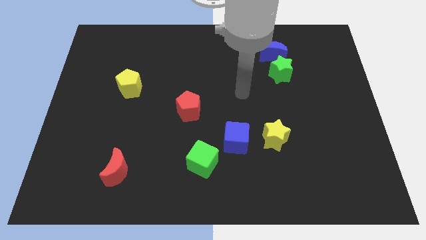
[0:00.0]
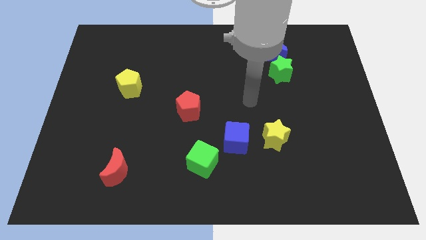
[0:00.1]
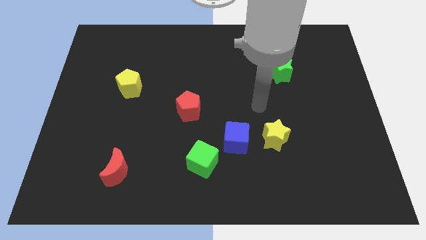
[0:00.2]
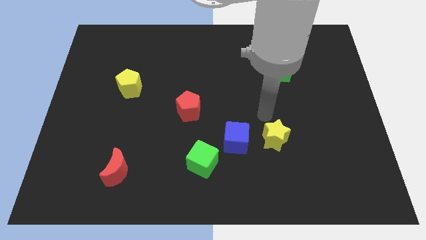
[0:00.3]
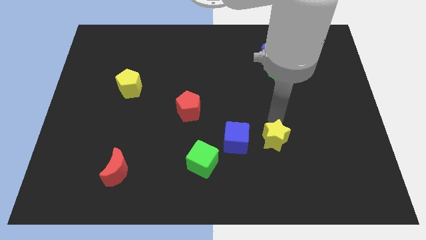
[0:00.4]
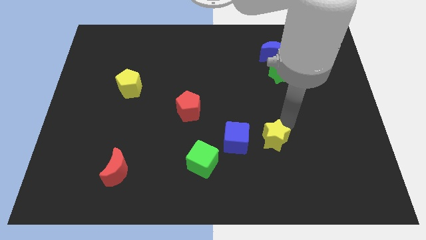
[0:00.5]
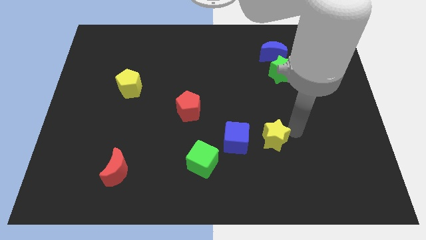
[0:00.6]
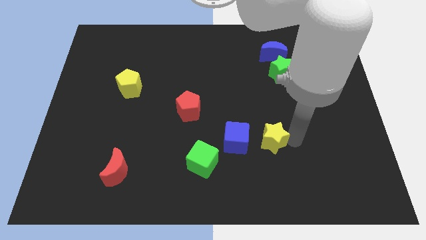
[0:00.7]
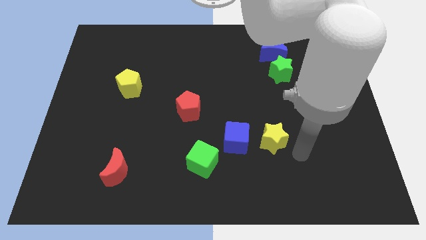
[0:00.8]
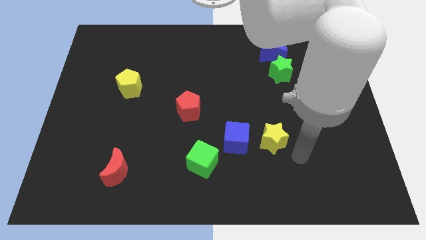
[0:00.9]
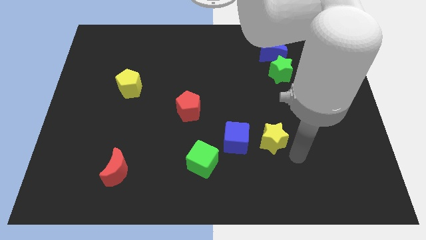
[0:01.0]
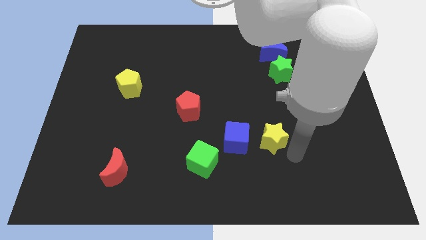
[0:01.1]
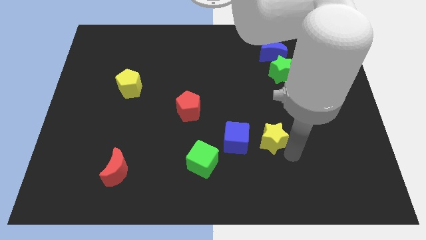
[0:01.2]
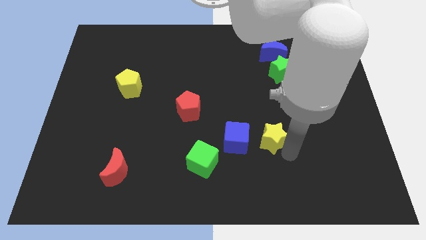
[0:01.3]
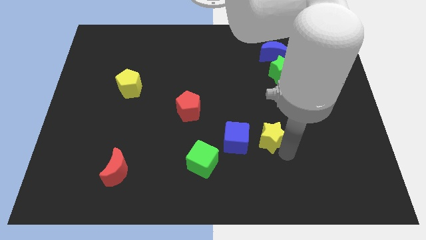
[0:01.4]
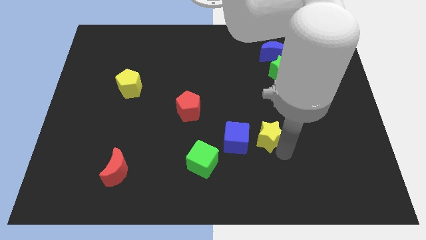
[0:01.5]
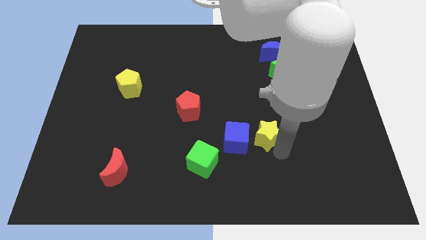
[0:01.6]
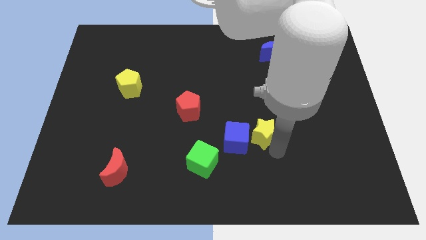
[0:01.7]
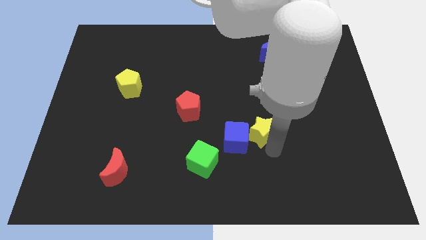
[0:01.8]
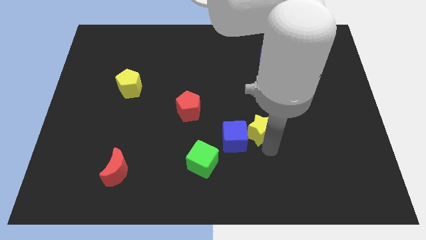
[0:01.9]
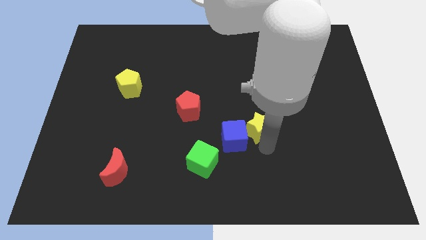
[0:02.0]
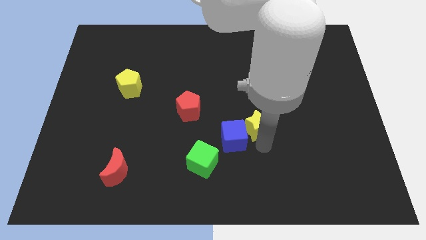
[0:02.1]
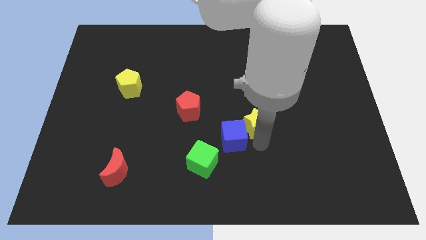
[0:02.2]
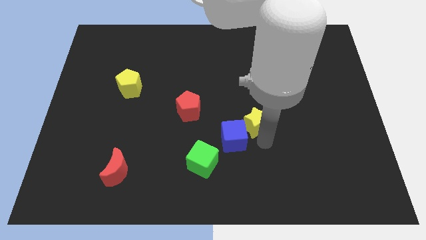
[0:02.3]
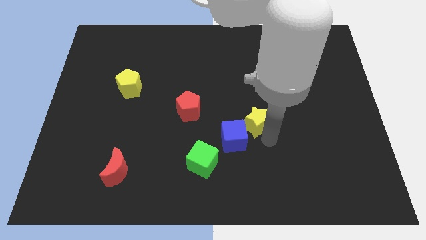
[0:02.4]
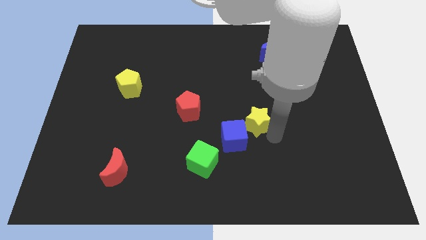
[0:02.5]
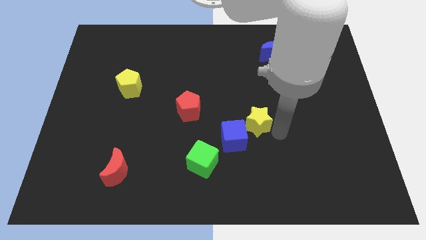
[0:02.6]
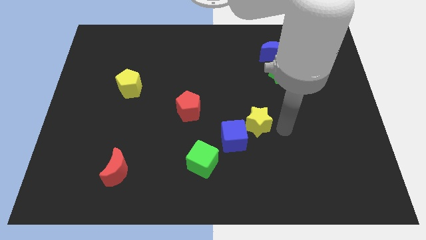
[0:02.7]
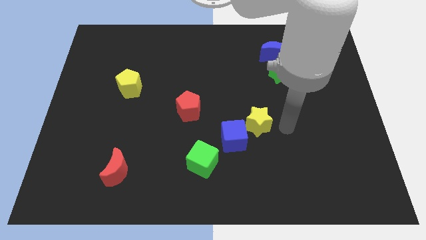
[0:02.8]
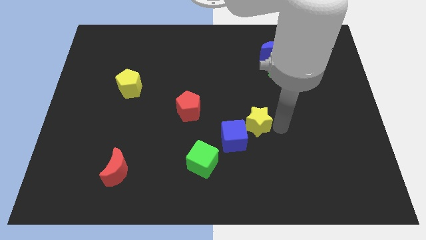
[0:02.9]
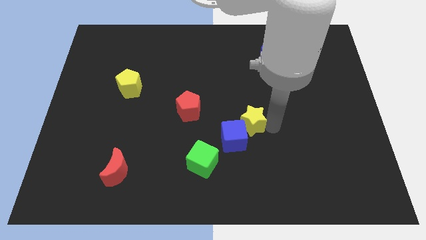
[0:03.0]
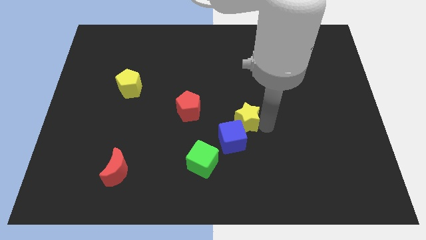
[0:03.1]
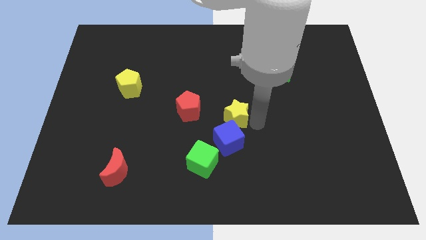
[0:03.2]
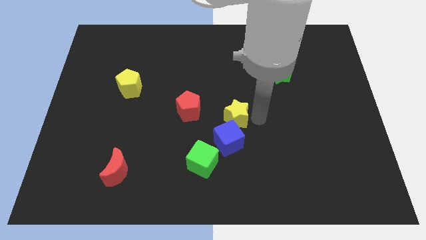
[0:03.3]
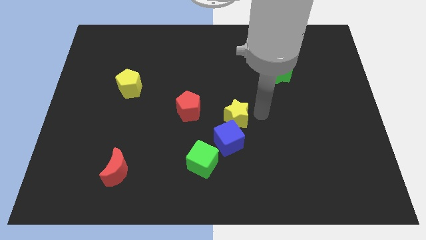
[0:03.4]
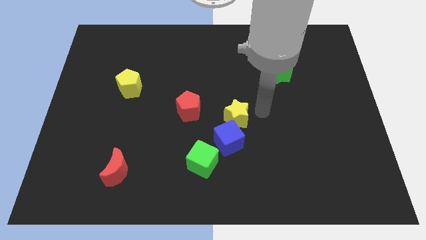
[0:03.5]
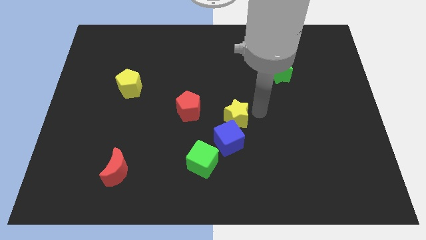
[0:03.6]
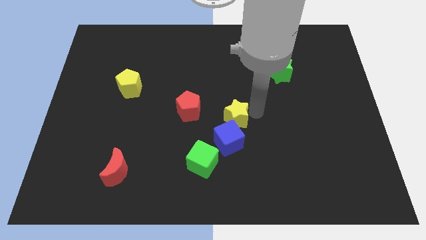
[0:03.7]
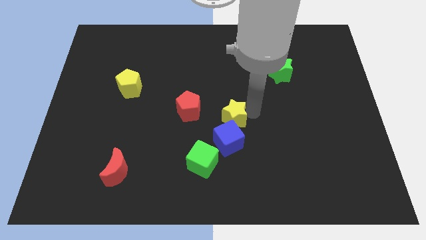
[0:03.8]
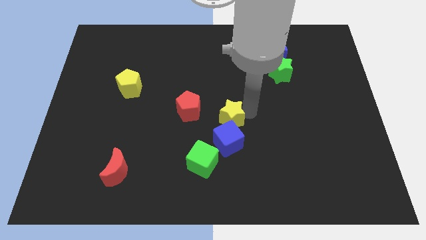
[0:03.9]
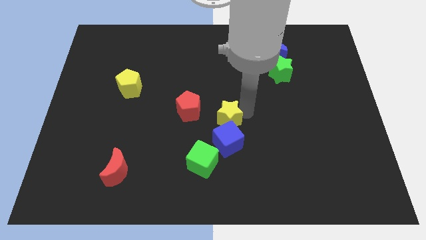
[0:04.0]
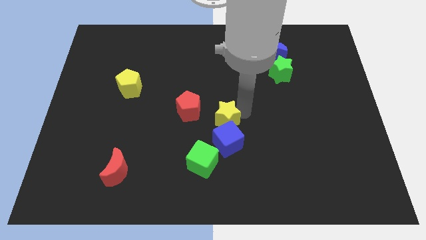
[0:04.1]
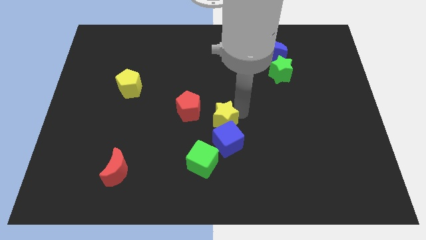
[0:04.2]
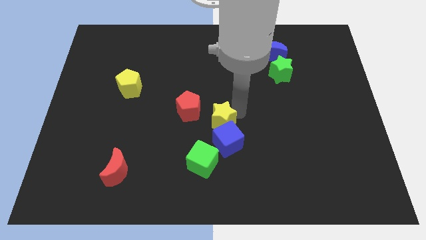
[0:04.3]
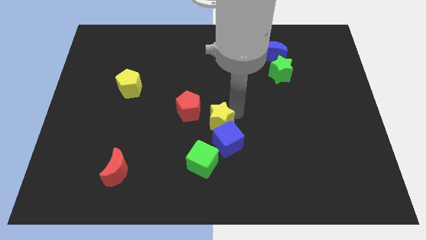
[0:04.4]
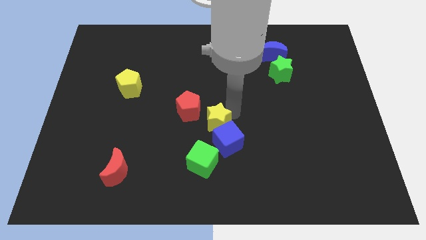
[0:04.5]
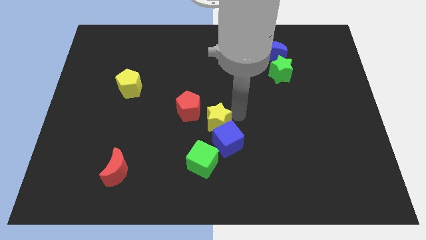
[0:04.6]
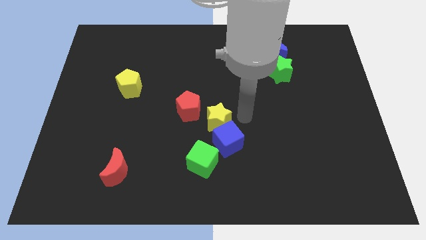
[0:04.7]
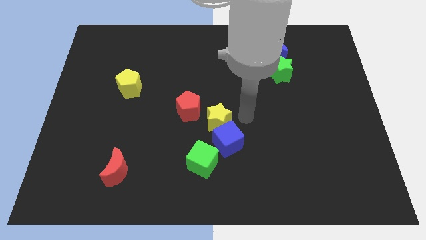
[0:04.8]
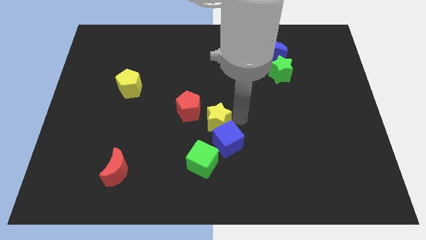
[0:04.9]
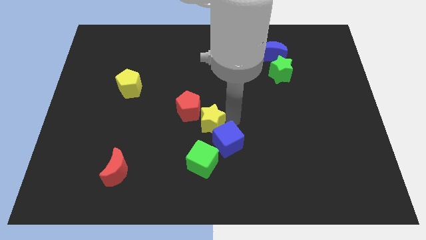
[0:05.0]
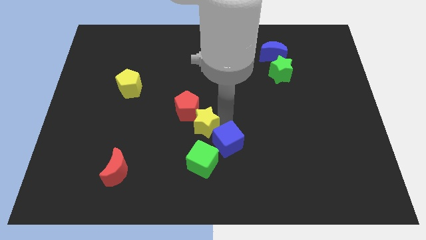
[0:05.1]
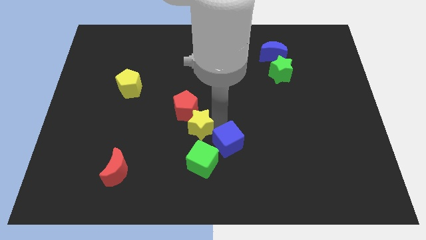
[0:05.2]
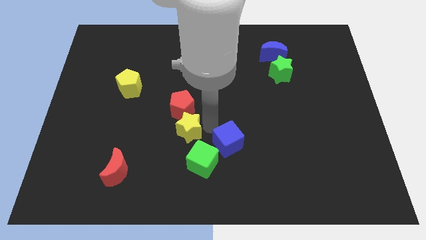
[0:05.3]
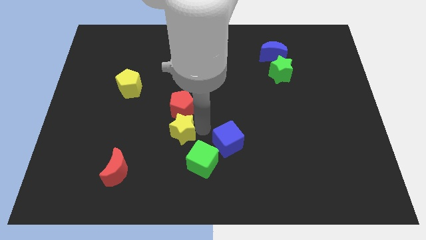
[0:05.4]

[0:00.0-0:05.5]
push the yellow star to the left

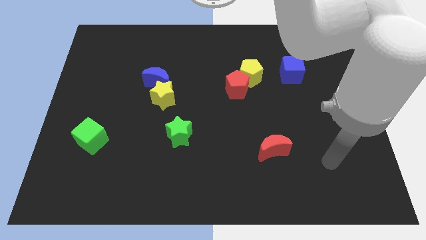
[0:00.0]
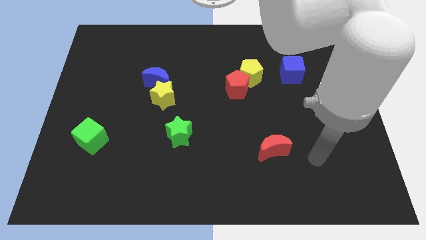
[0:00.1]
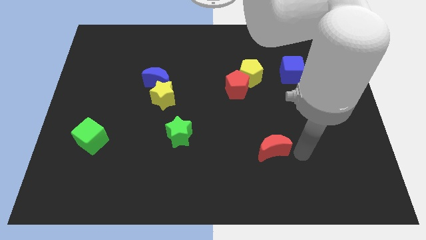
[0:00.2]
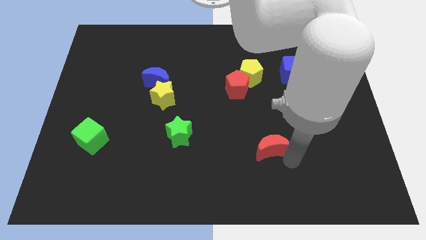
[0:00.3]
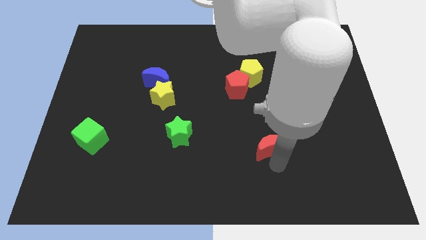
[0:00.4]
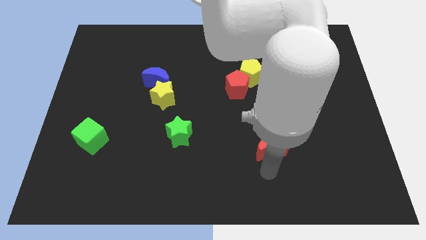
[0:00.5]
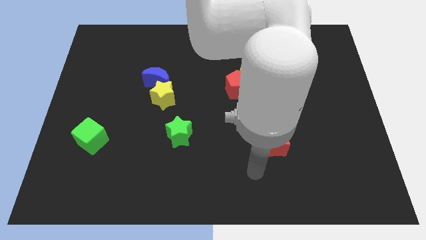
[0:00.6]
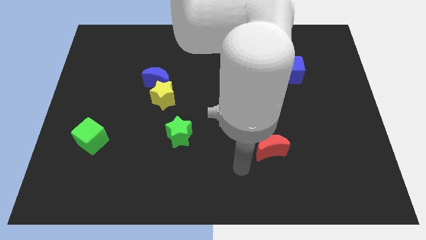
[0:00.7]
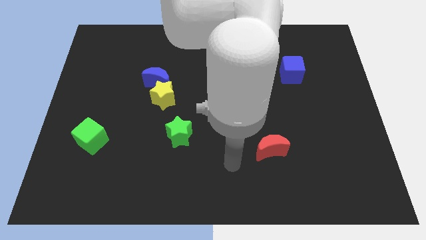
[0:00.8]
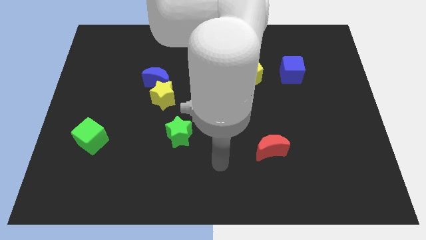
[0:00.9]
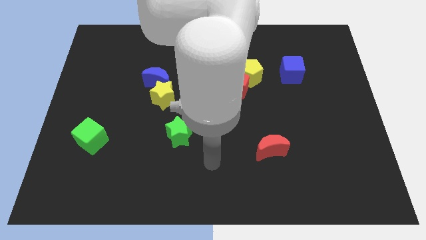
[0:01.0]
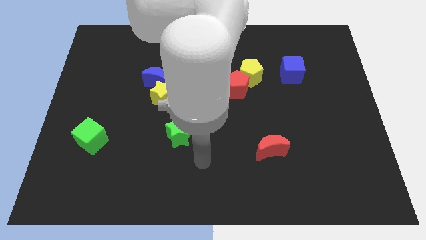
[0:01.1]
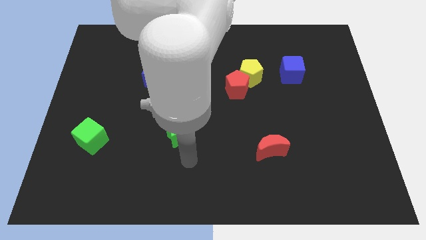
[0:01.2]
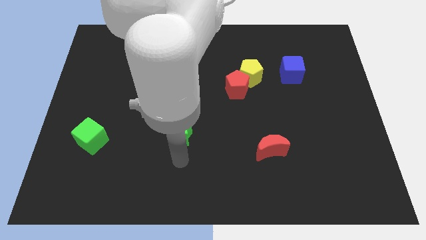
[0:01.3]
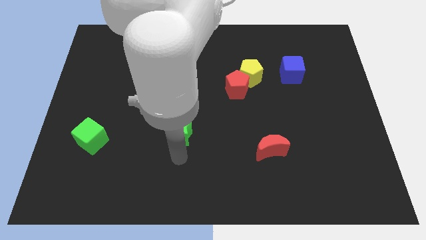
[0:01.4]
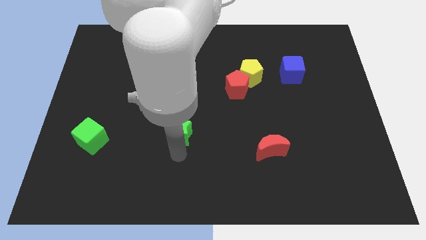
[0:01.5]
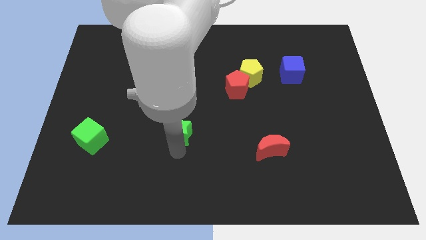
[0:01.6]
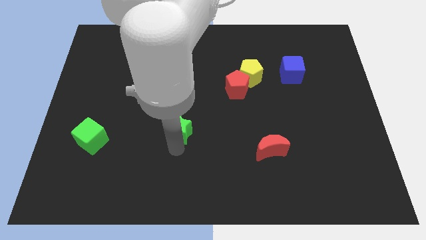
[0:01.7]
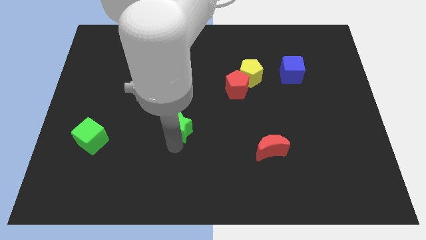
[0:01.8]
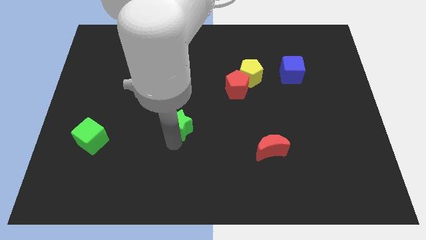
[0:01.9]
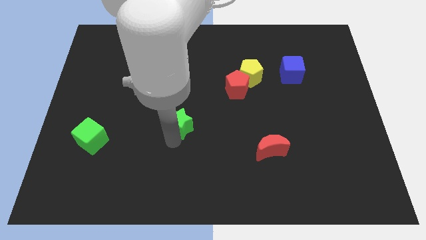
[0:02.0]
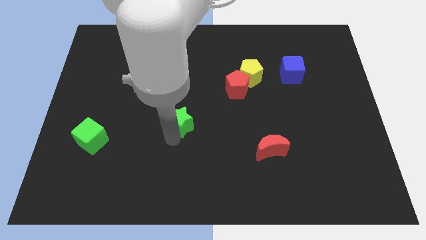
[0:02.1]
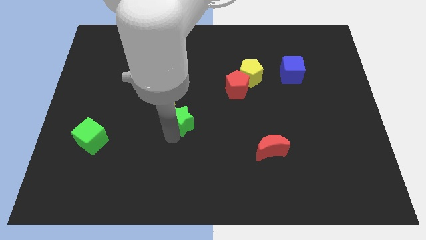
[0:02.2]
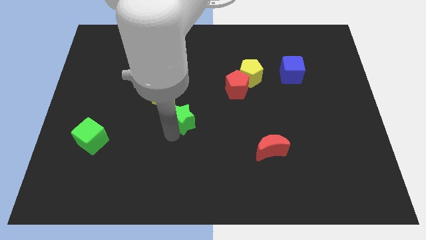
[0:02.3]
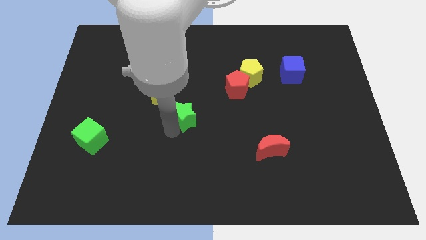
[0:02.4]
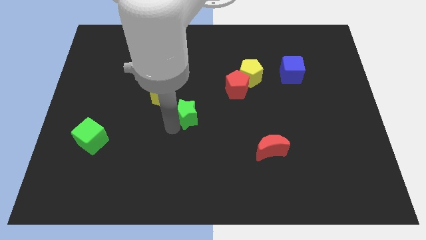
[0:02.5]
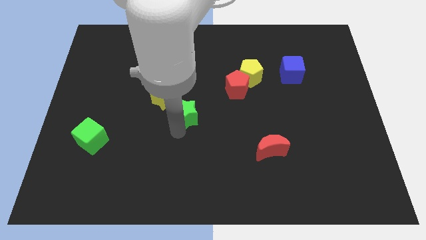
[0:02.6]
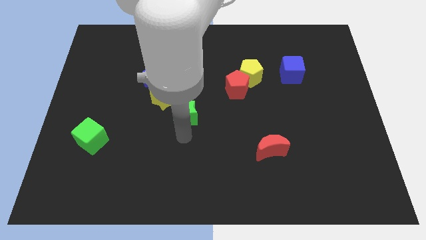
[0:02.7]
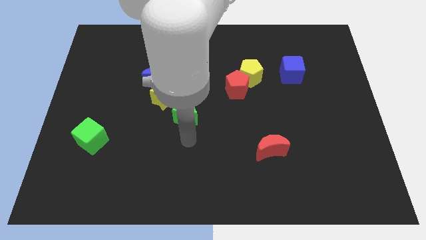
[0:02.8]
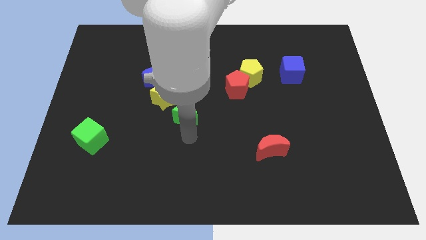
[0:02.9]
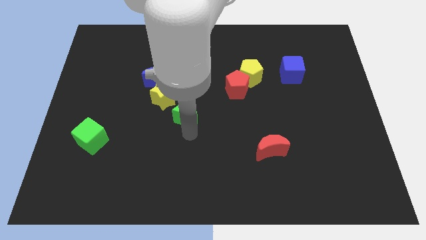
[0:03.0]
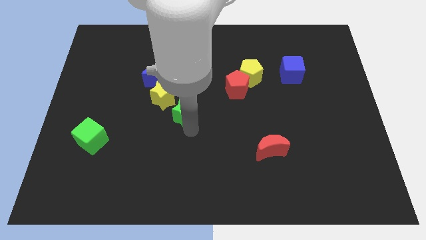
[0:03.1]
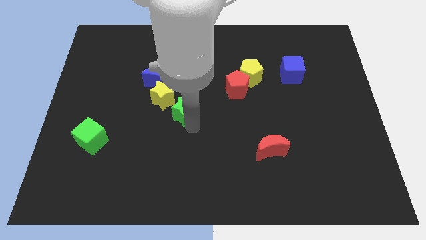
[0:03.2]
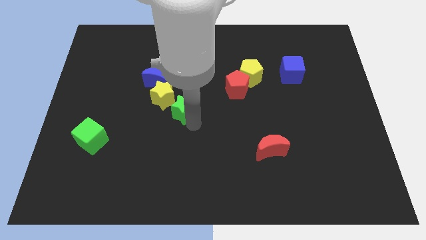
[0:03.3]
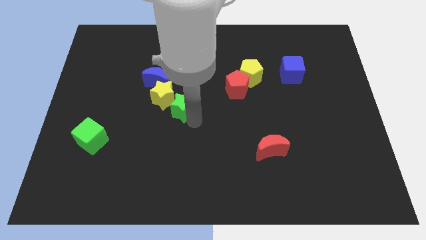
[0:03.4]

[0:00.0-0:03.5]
push the green star a little up
